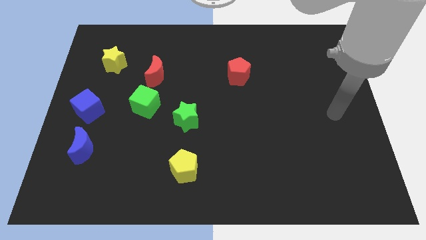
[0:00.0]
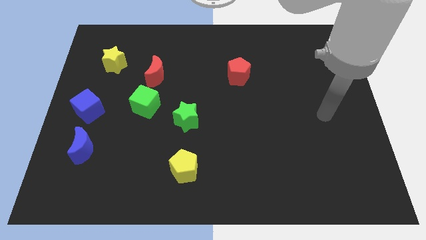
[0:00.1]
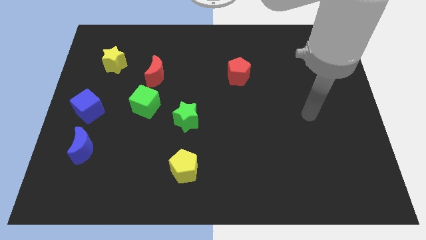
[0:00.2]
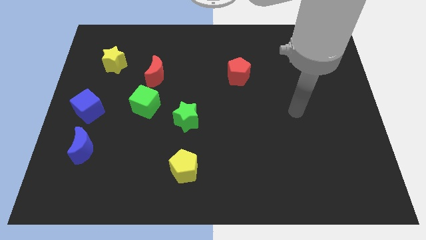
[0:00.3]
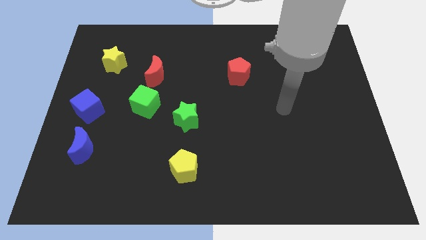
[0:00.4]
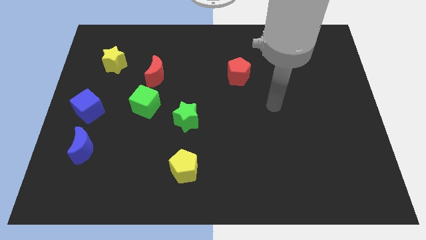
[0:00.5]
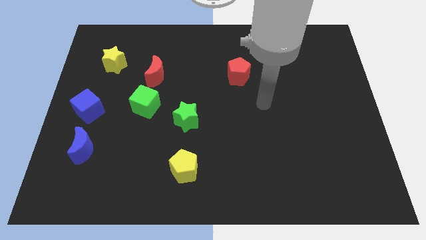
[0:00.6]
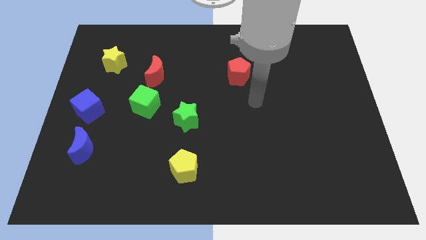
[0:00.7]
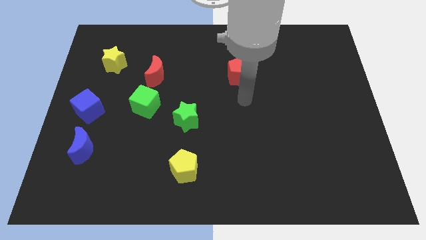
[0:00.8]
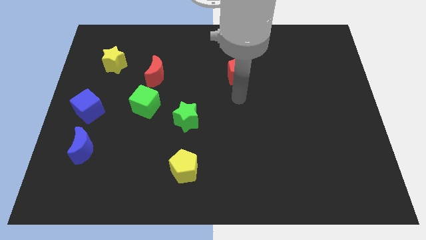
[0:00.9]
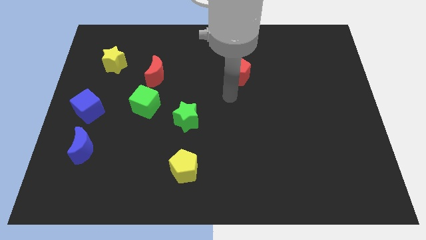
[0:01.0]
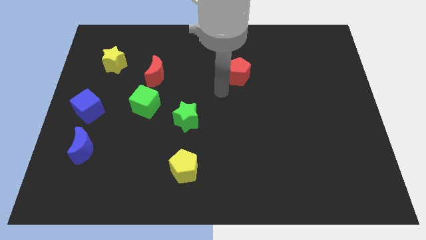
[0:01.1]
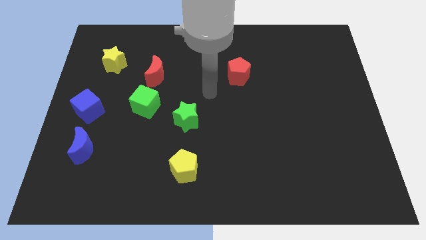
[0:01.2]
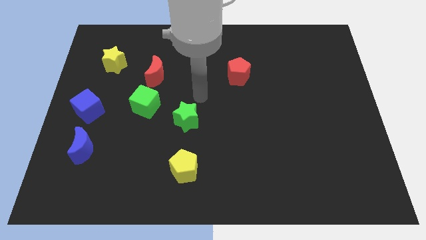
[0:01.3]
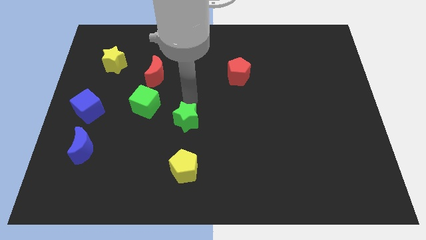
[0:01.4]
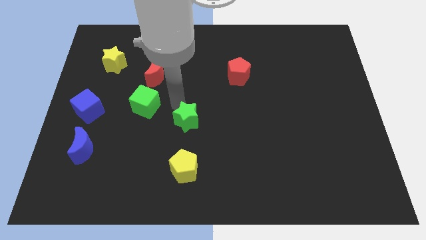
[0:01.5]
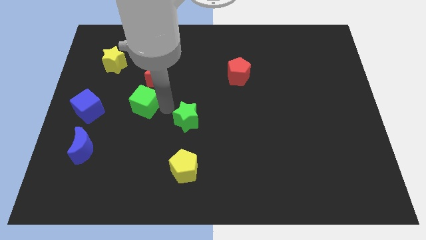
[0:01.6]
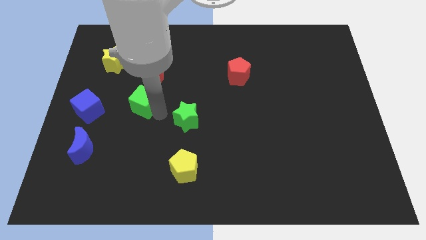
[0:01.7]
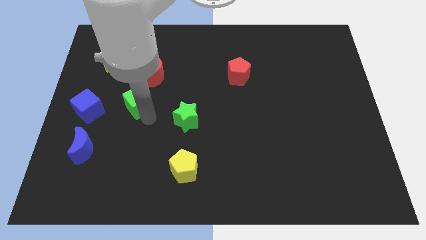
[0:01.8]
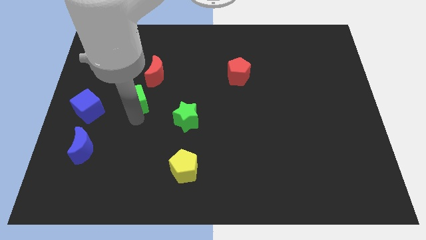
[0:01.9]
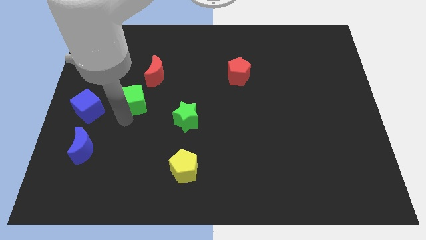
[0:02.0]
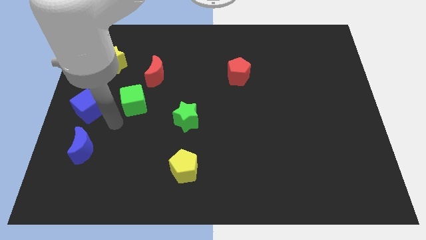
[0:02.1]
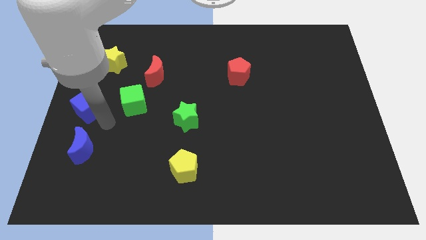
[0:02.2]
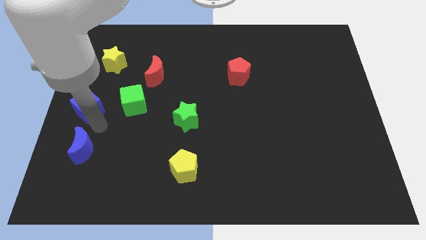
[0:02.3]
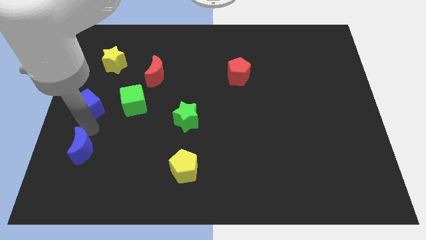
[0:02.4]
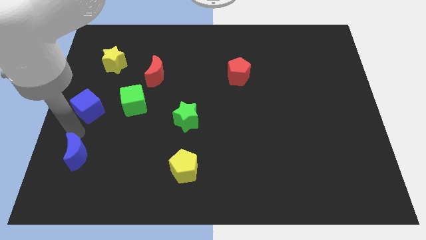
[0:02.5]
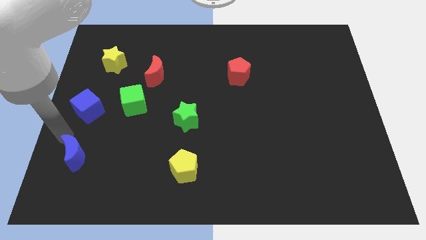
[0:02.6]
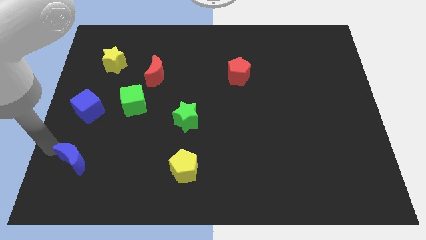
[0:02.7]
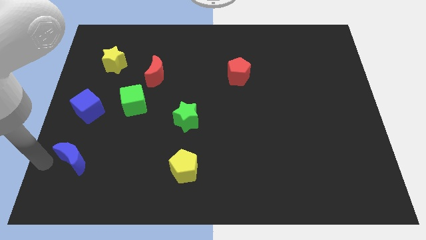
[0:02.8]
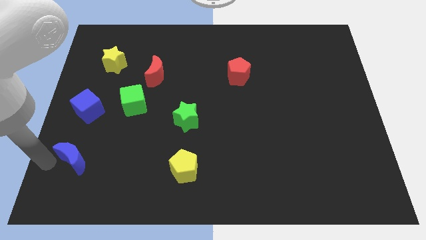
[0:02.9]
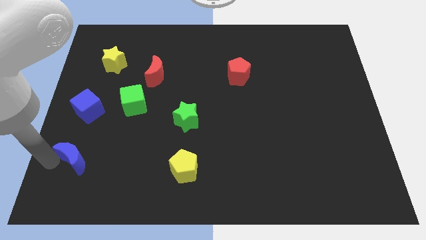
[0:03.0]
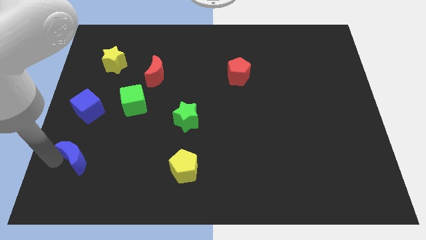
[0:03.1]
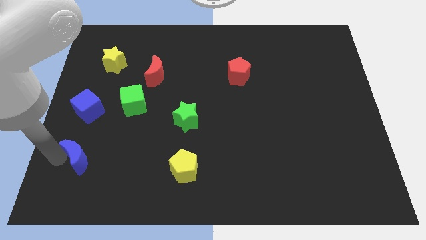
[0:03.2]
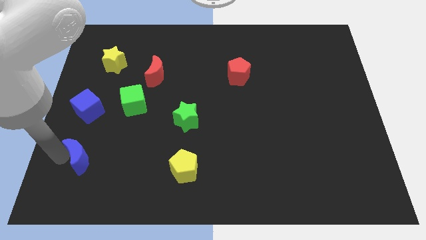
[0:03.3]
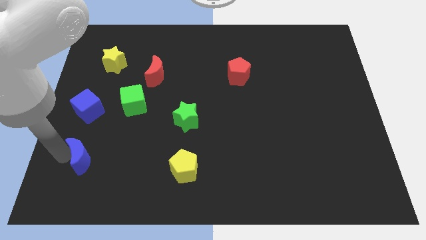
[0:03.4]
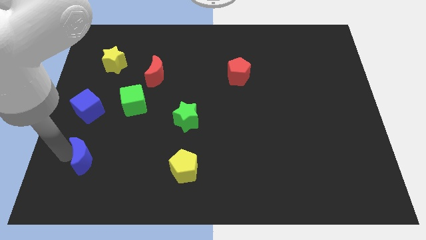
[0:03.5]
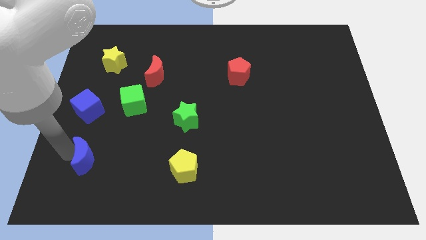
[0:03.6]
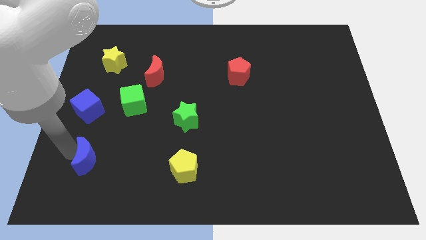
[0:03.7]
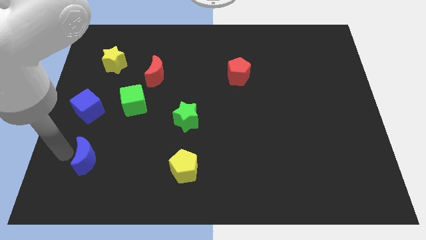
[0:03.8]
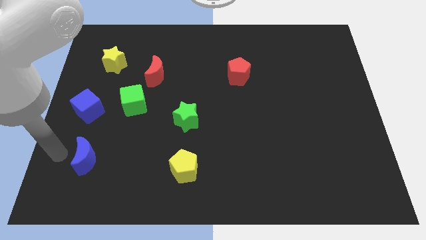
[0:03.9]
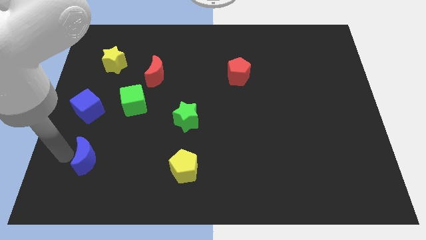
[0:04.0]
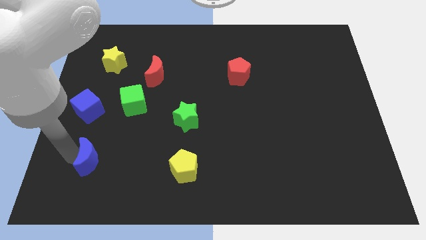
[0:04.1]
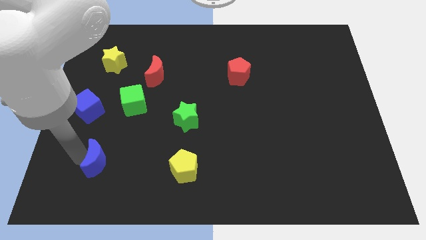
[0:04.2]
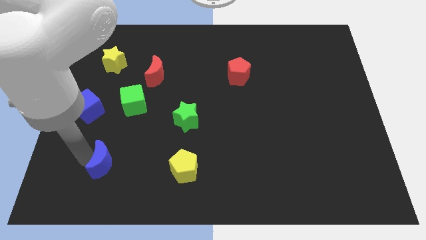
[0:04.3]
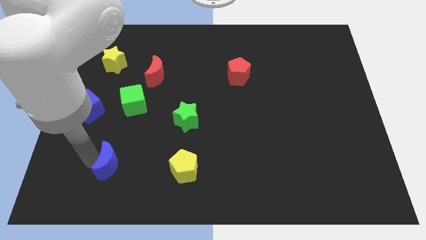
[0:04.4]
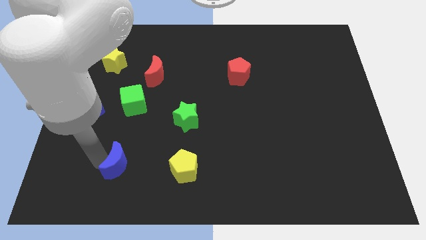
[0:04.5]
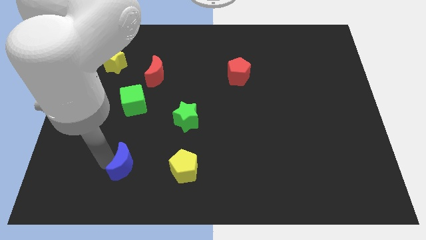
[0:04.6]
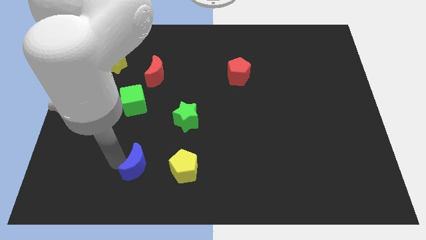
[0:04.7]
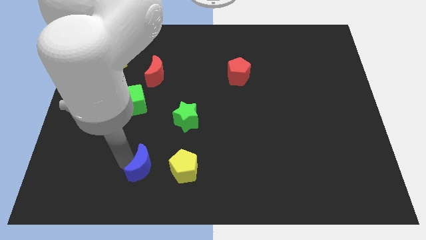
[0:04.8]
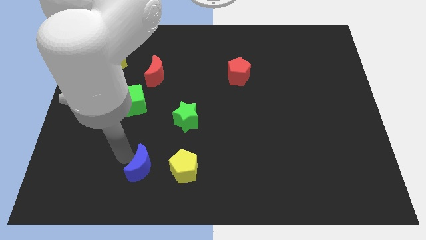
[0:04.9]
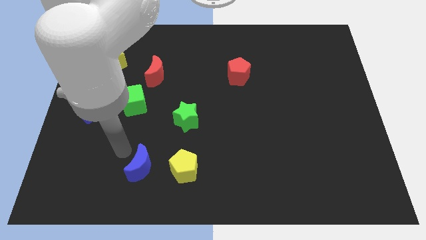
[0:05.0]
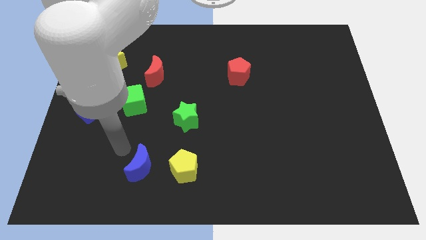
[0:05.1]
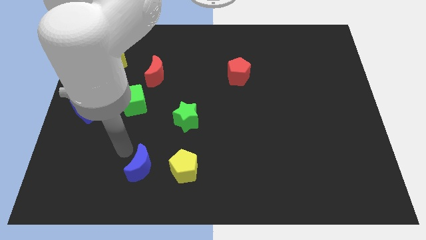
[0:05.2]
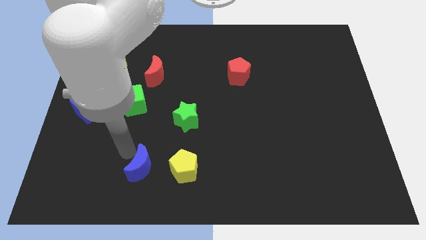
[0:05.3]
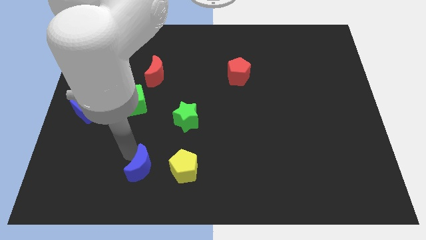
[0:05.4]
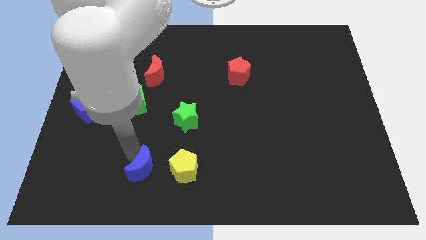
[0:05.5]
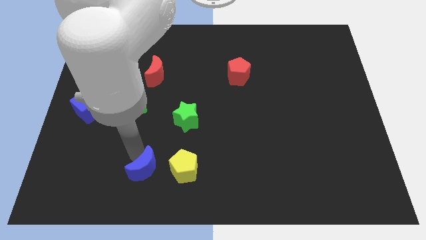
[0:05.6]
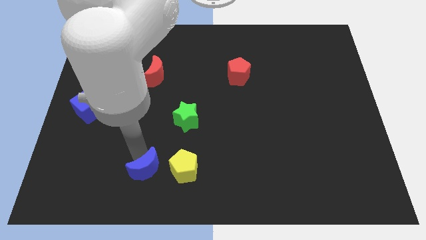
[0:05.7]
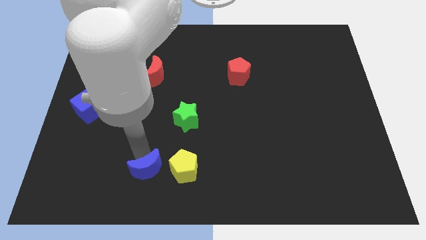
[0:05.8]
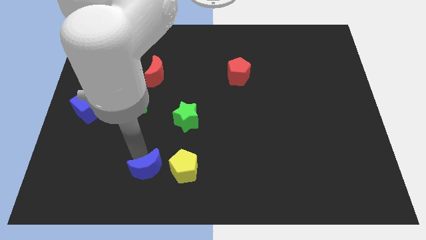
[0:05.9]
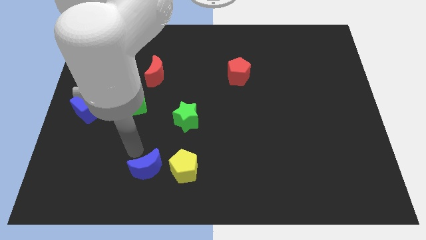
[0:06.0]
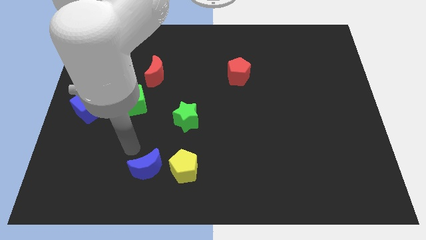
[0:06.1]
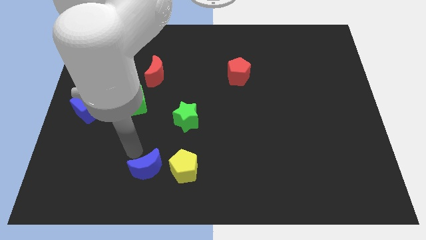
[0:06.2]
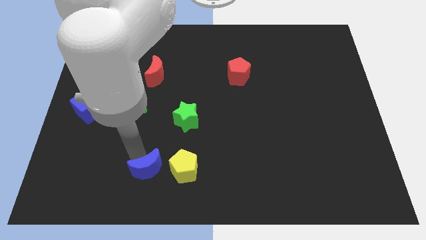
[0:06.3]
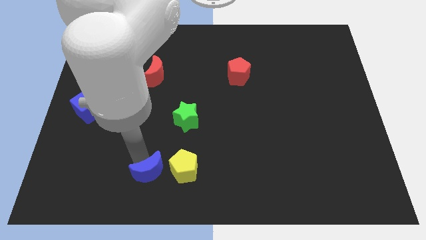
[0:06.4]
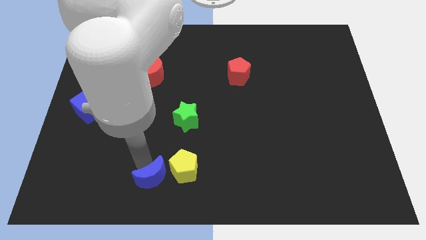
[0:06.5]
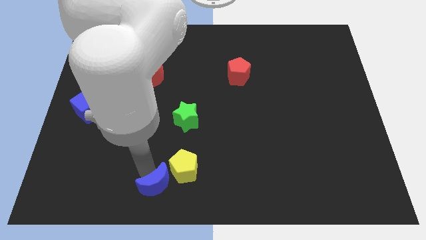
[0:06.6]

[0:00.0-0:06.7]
slide the blue moon to the bottom side

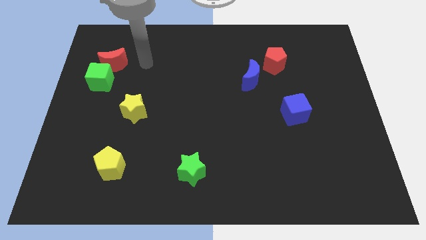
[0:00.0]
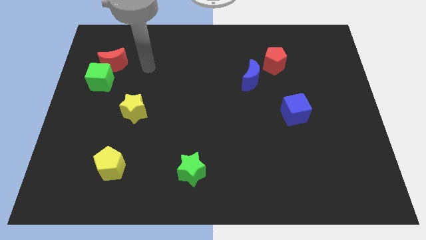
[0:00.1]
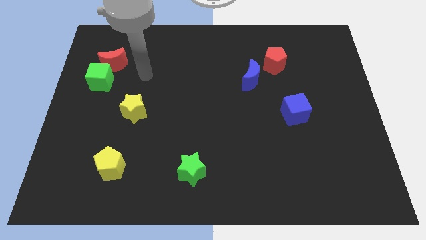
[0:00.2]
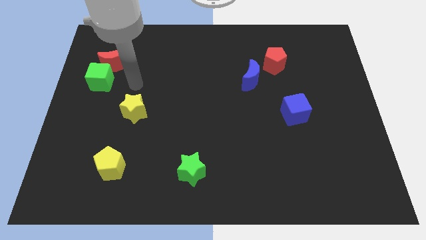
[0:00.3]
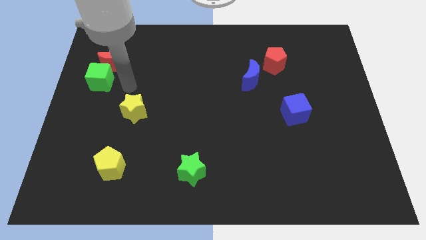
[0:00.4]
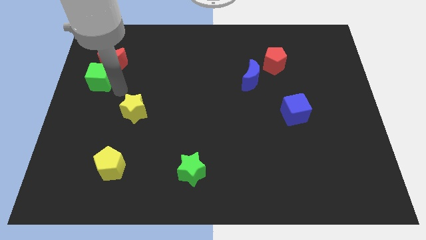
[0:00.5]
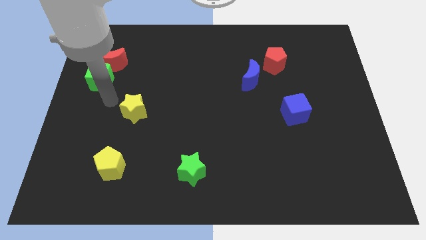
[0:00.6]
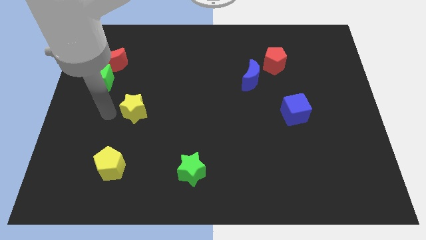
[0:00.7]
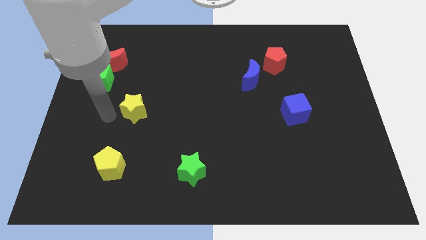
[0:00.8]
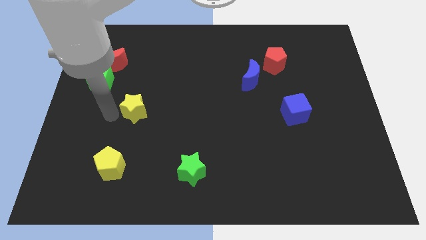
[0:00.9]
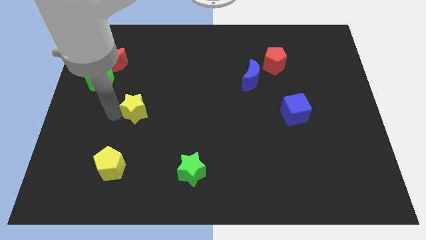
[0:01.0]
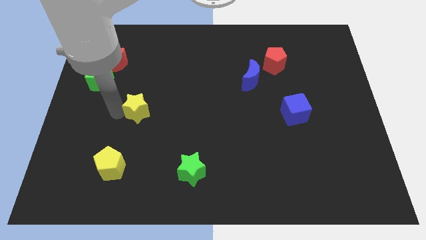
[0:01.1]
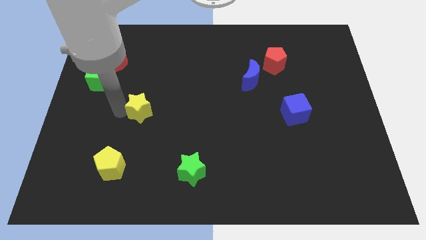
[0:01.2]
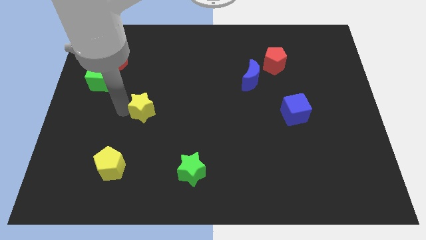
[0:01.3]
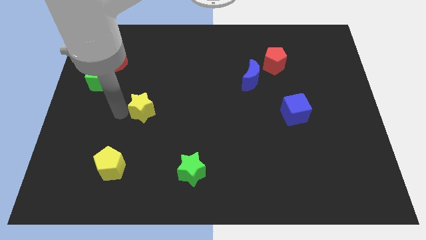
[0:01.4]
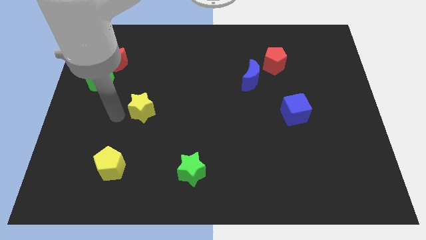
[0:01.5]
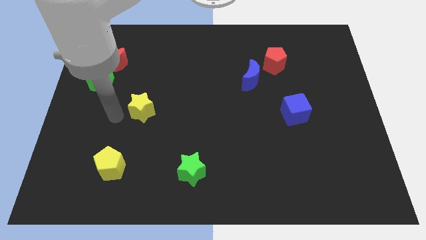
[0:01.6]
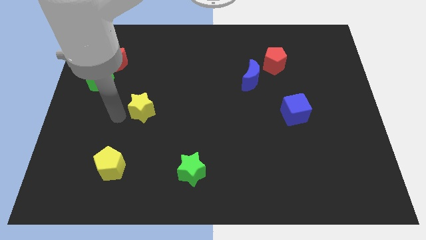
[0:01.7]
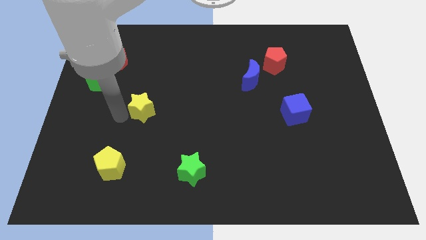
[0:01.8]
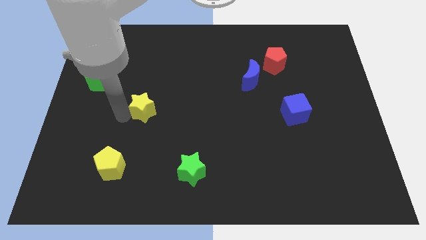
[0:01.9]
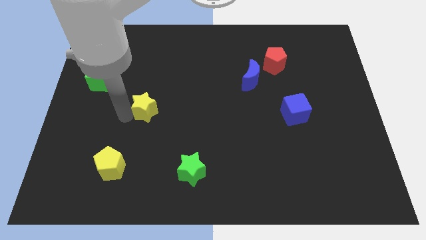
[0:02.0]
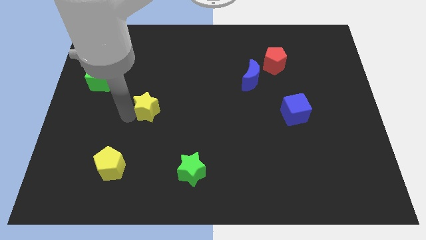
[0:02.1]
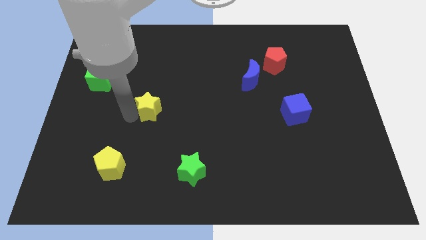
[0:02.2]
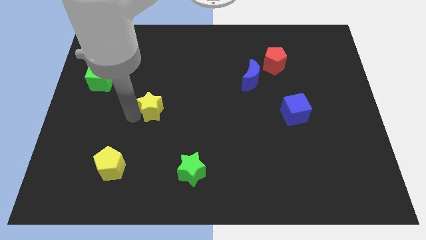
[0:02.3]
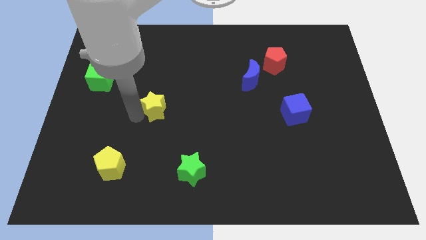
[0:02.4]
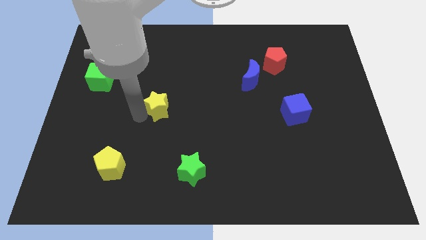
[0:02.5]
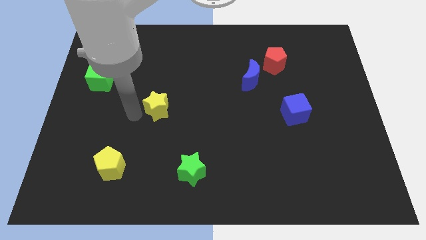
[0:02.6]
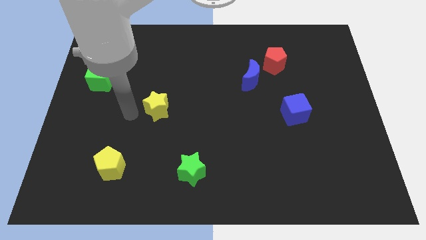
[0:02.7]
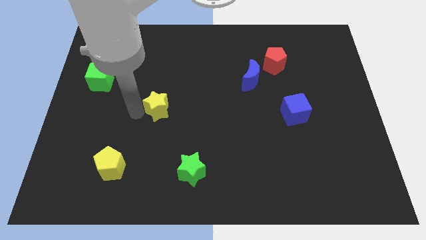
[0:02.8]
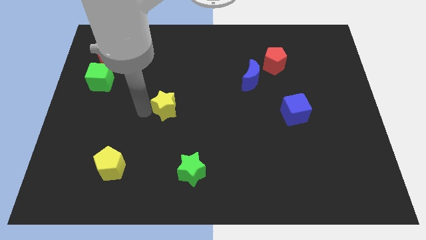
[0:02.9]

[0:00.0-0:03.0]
move the yellow star to the middle of the board
